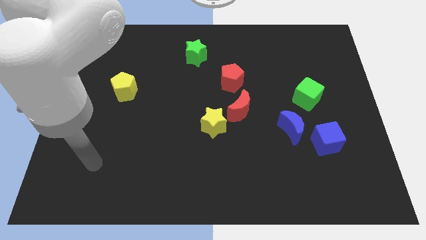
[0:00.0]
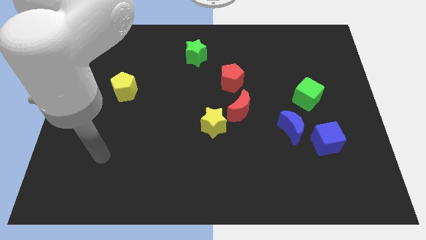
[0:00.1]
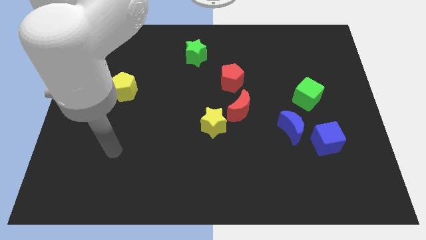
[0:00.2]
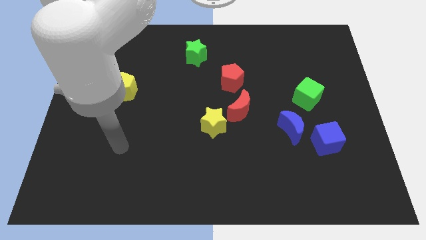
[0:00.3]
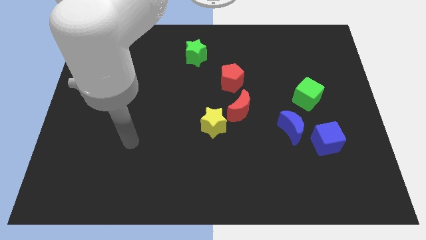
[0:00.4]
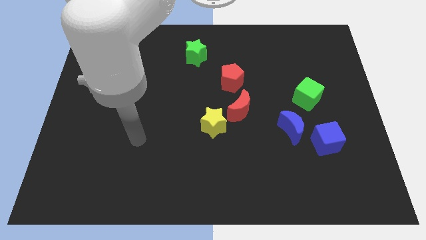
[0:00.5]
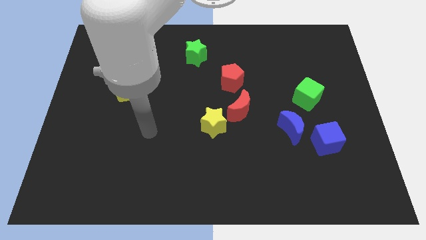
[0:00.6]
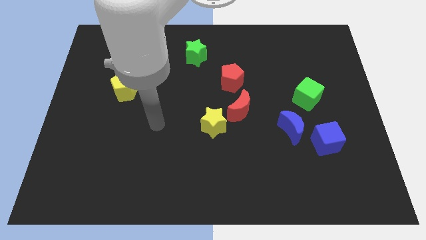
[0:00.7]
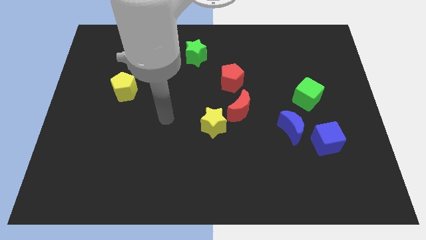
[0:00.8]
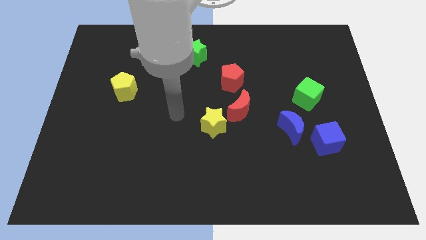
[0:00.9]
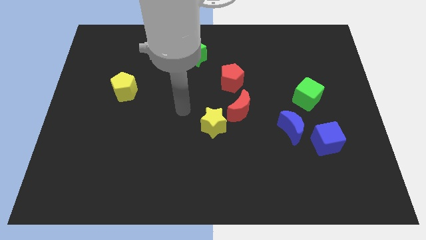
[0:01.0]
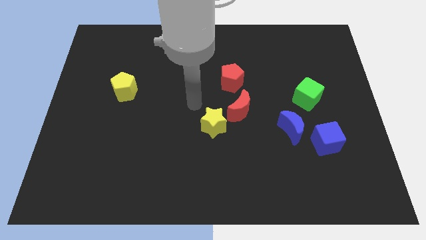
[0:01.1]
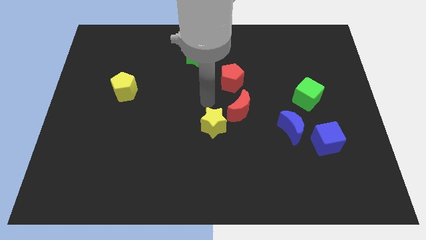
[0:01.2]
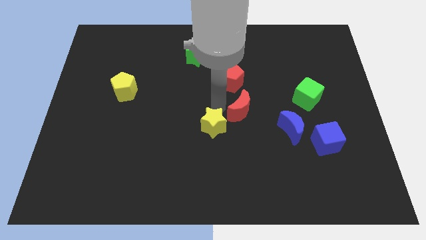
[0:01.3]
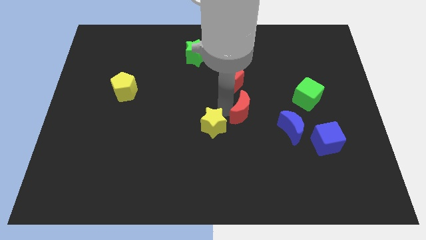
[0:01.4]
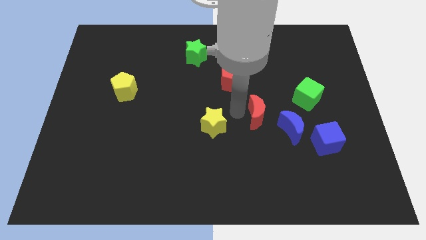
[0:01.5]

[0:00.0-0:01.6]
move the yellow star away from the red moon

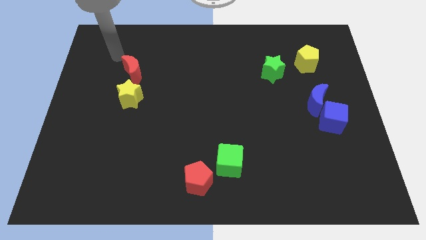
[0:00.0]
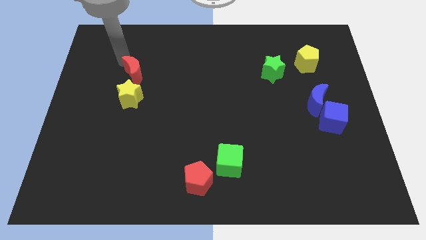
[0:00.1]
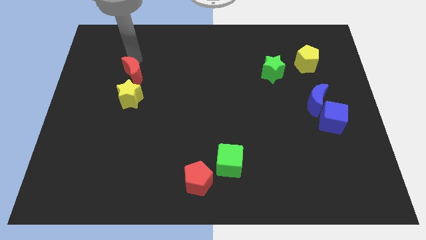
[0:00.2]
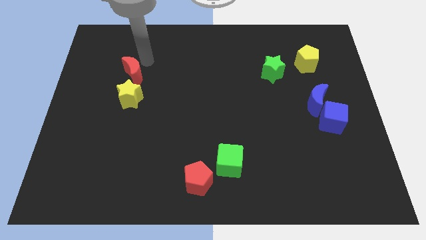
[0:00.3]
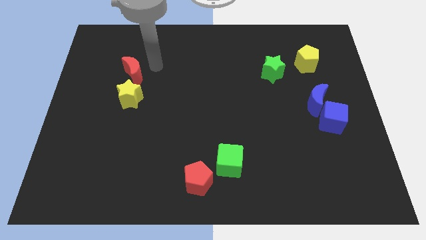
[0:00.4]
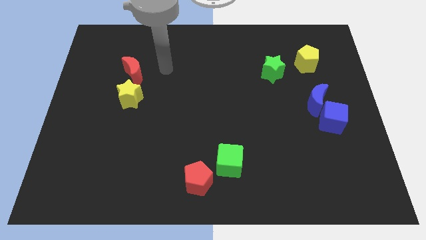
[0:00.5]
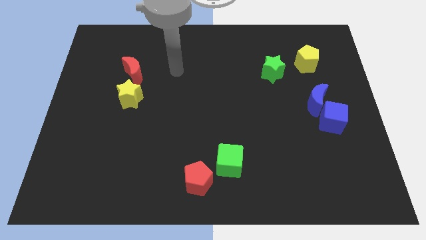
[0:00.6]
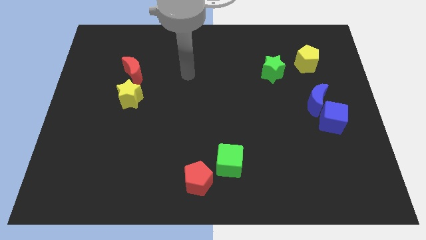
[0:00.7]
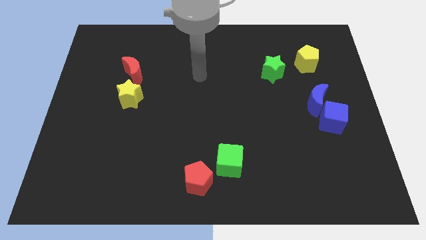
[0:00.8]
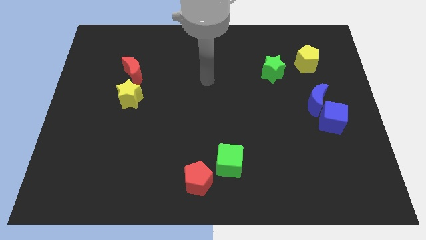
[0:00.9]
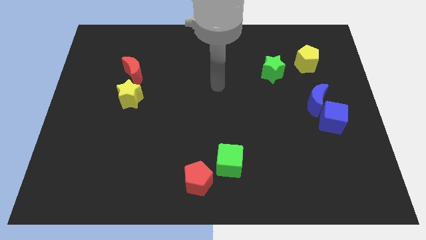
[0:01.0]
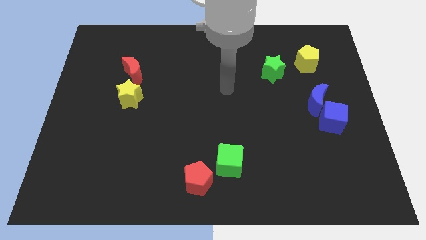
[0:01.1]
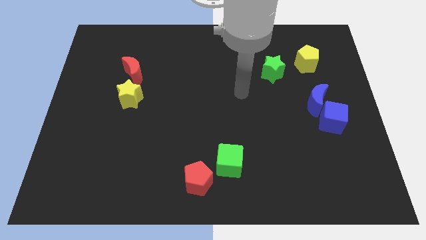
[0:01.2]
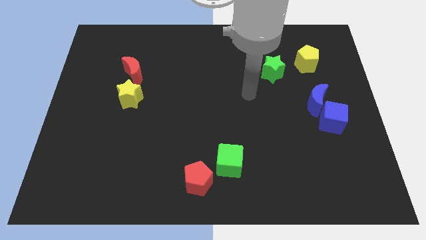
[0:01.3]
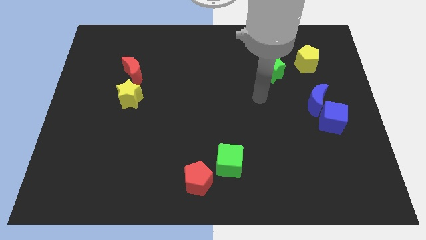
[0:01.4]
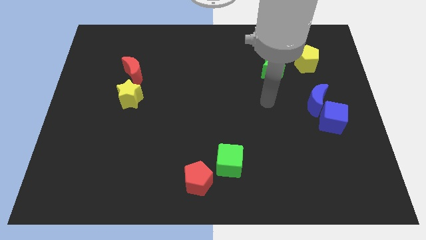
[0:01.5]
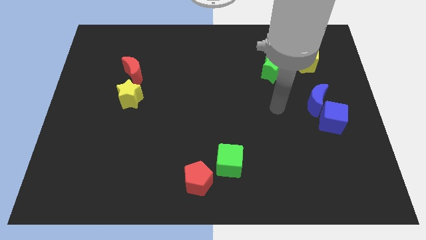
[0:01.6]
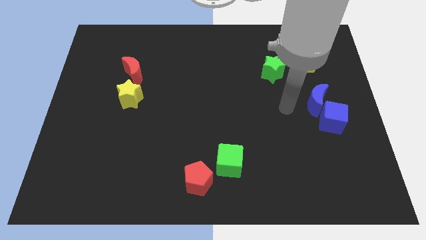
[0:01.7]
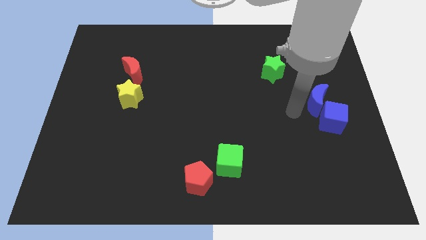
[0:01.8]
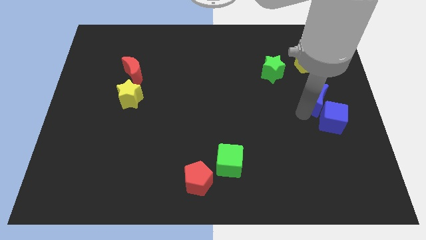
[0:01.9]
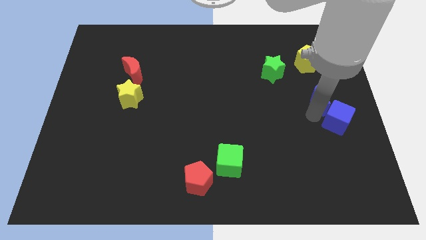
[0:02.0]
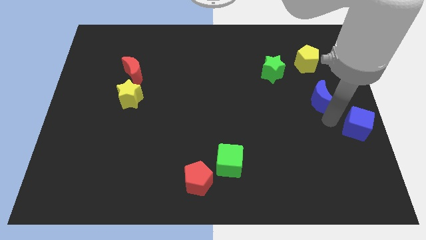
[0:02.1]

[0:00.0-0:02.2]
pull the blue moon apart from the blue cube

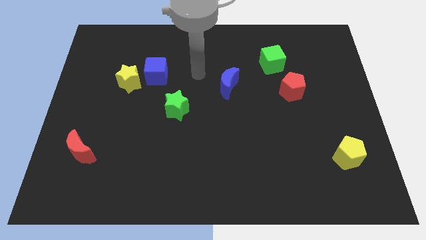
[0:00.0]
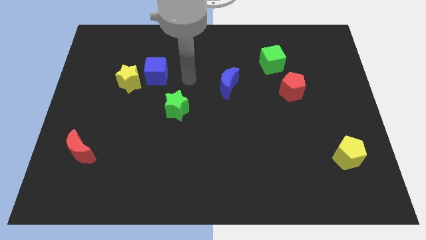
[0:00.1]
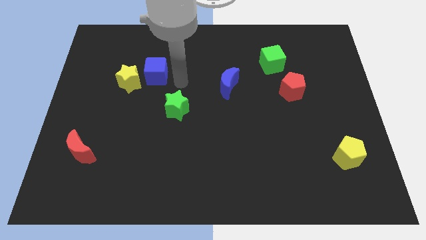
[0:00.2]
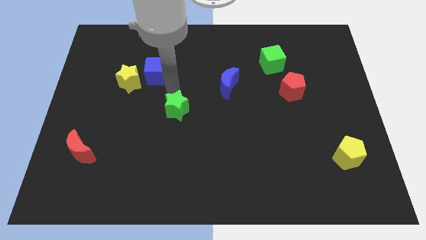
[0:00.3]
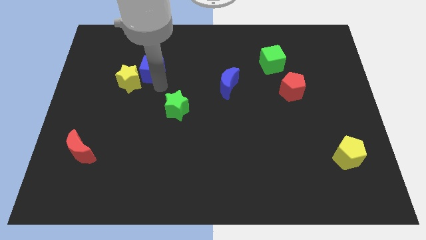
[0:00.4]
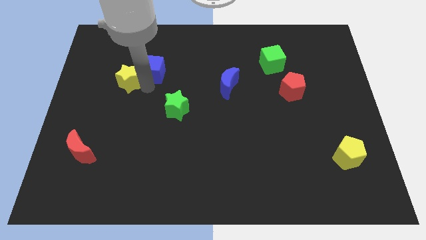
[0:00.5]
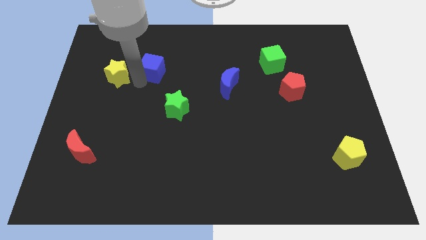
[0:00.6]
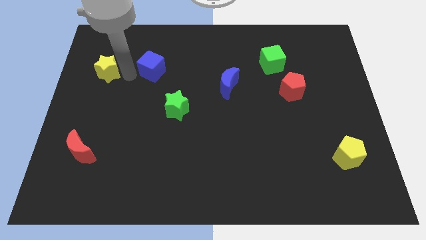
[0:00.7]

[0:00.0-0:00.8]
pull the blue cube apart from the yellow star

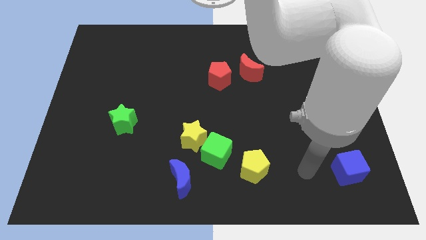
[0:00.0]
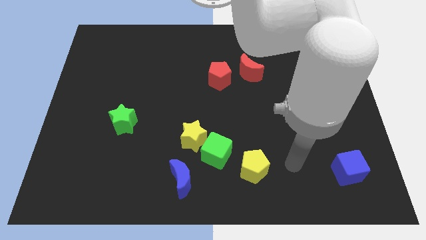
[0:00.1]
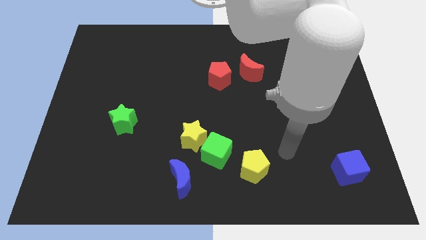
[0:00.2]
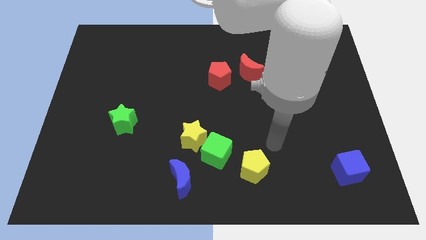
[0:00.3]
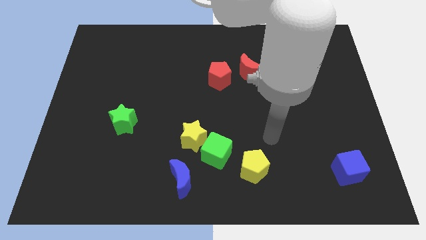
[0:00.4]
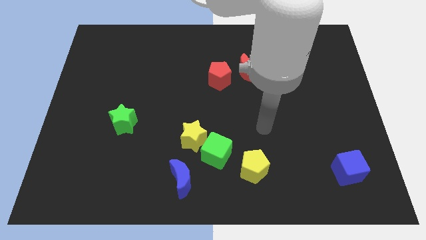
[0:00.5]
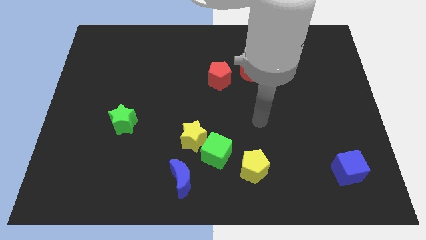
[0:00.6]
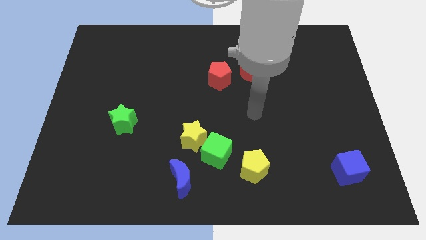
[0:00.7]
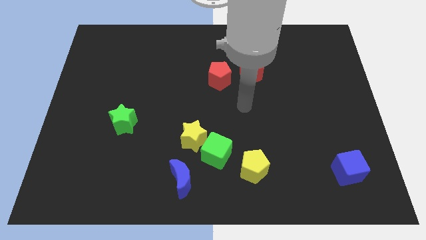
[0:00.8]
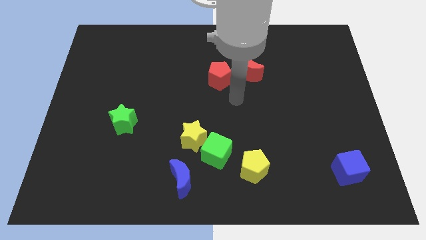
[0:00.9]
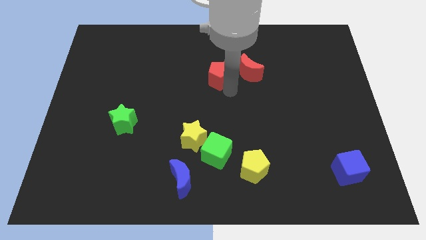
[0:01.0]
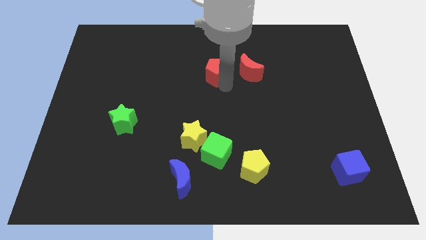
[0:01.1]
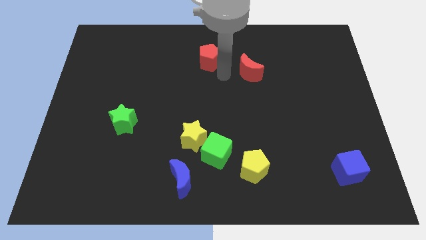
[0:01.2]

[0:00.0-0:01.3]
move the red moon away from the red pentagon

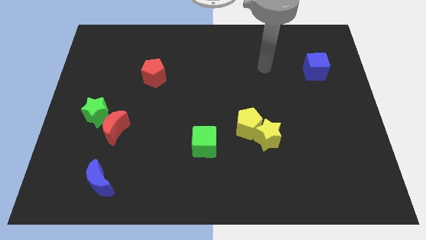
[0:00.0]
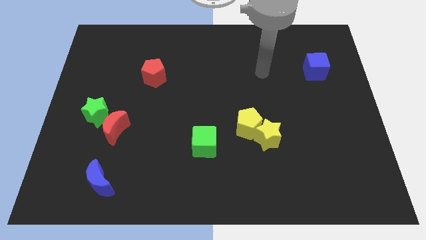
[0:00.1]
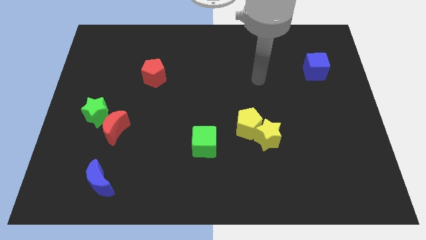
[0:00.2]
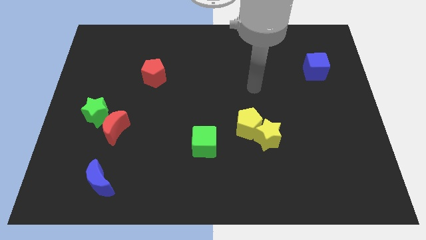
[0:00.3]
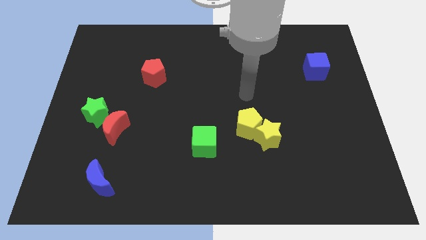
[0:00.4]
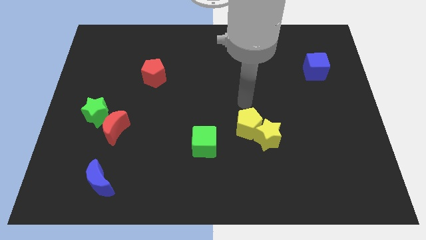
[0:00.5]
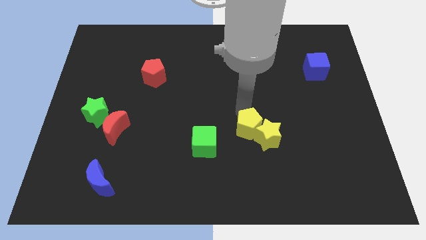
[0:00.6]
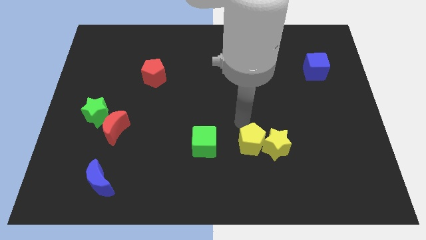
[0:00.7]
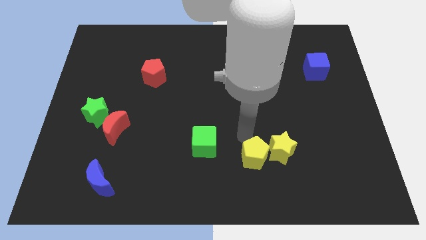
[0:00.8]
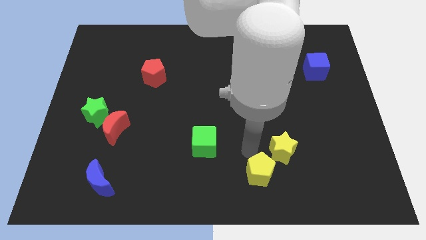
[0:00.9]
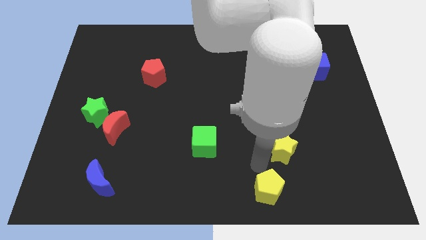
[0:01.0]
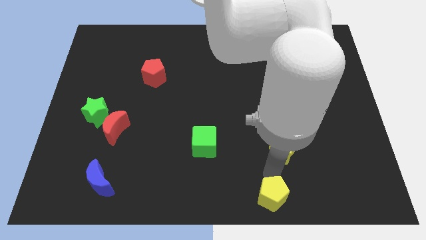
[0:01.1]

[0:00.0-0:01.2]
move the yellow star away from the yellow pentagon

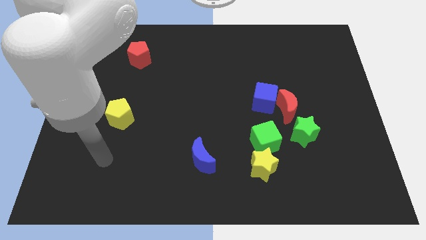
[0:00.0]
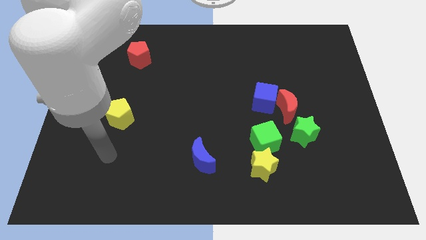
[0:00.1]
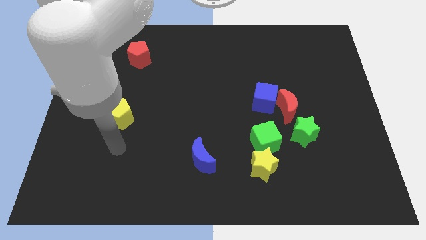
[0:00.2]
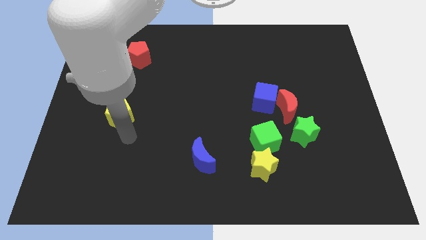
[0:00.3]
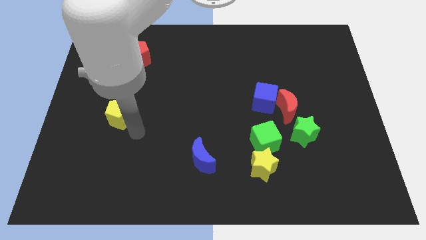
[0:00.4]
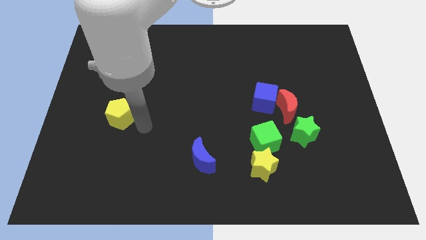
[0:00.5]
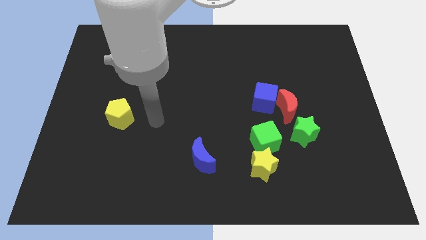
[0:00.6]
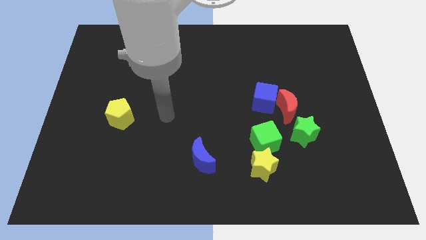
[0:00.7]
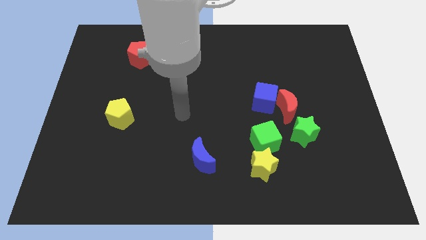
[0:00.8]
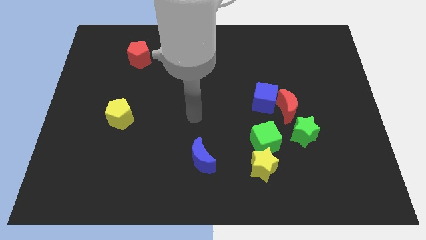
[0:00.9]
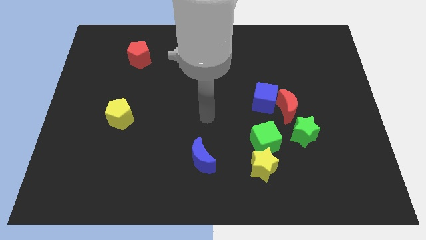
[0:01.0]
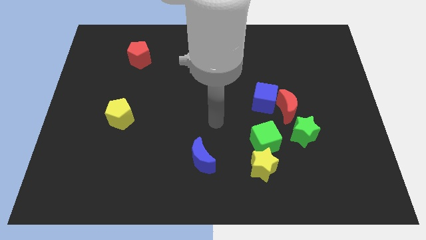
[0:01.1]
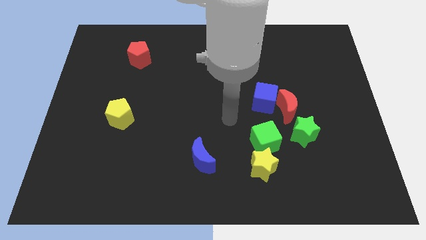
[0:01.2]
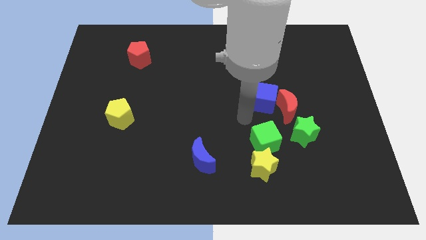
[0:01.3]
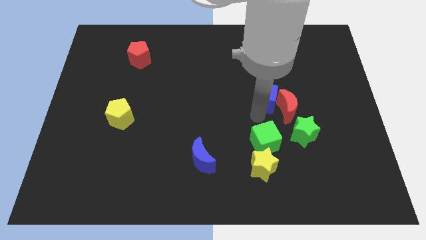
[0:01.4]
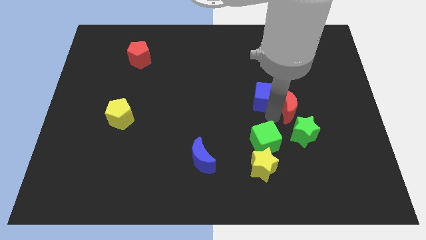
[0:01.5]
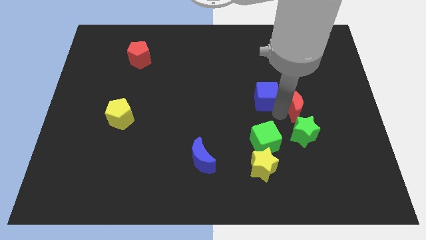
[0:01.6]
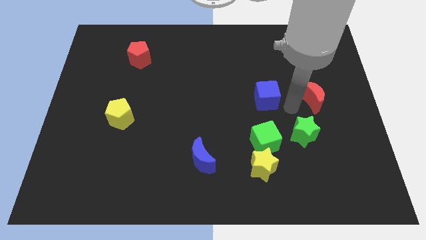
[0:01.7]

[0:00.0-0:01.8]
pull the blue cube apart from the red moon

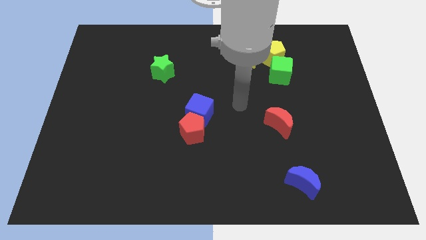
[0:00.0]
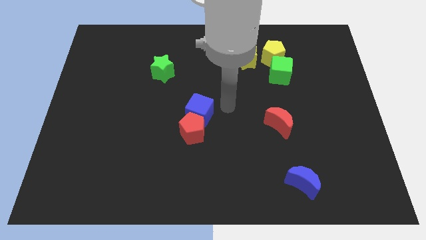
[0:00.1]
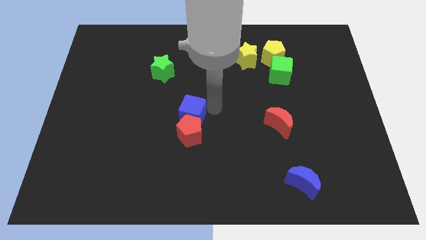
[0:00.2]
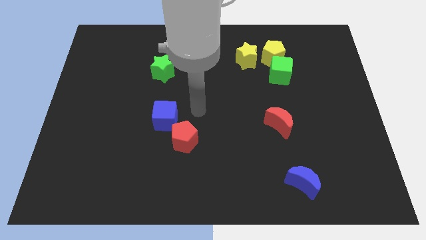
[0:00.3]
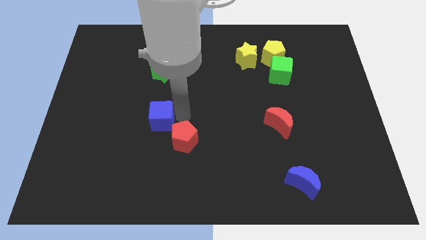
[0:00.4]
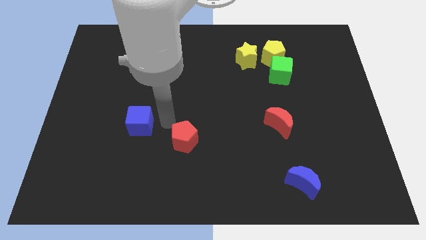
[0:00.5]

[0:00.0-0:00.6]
pull the red pentagon apart from the blue cube
